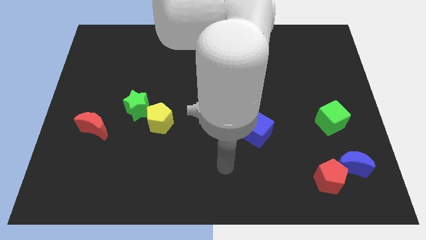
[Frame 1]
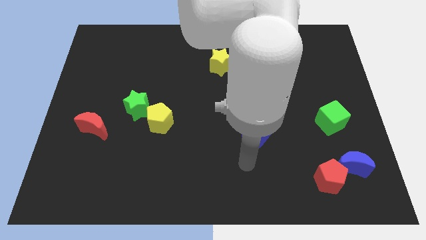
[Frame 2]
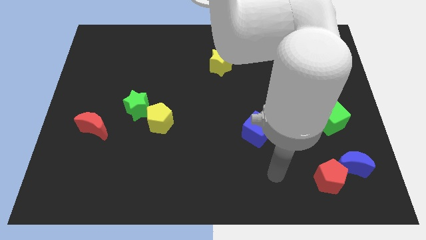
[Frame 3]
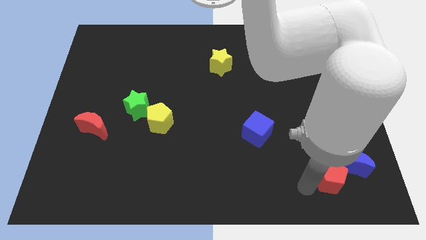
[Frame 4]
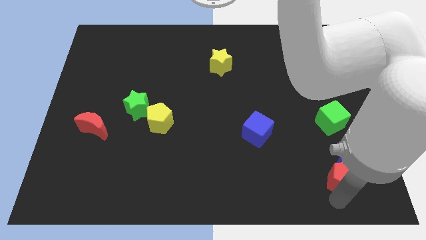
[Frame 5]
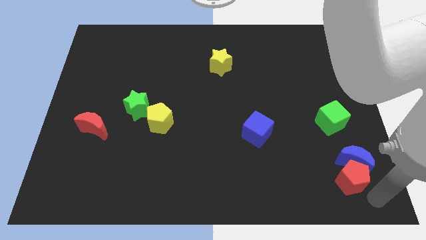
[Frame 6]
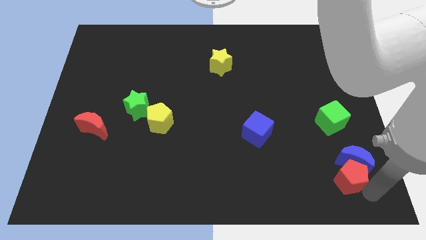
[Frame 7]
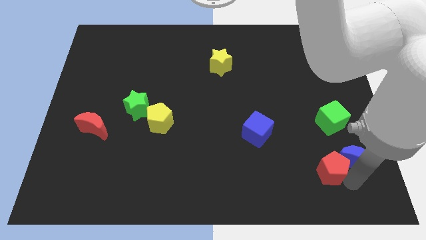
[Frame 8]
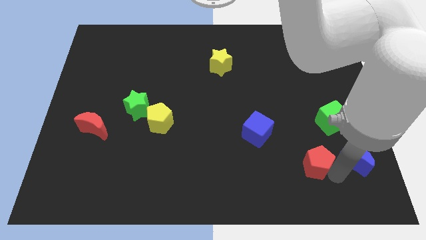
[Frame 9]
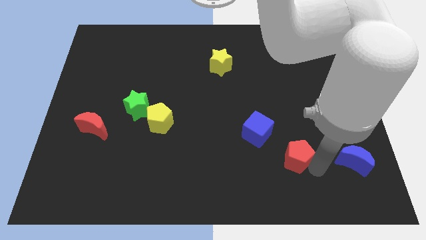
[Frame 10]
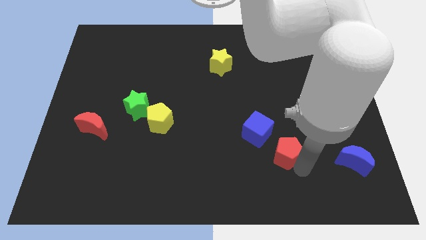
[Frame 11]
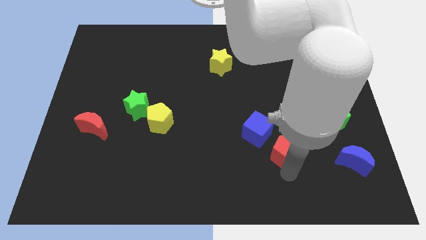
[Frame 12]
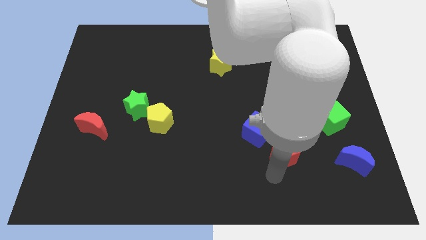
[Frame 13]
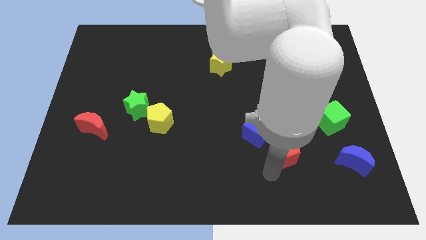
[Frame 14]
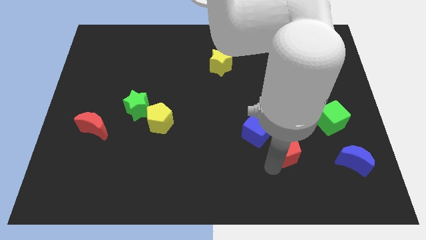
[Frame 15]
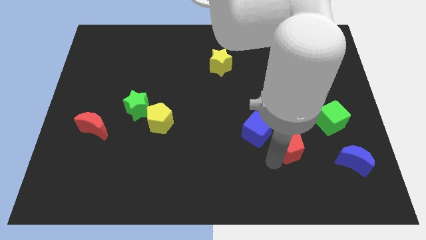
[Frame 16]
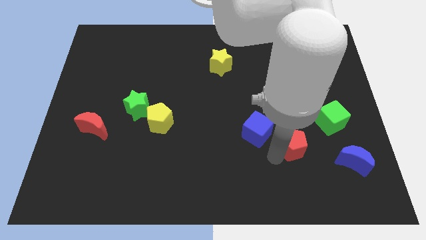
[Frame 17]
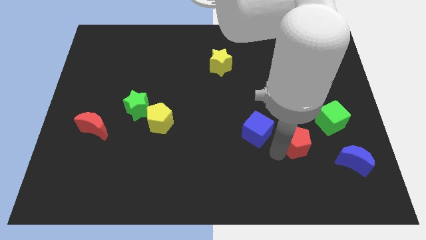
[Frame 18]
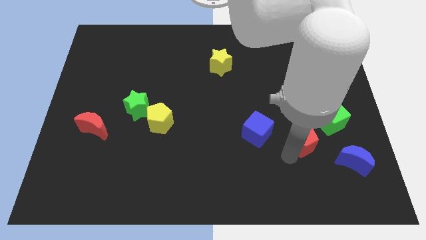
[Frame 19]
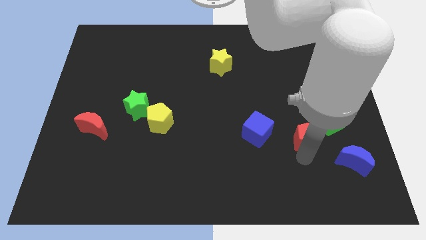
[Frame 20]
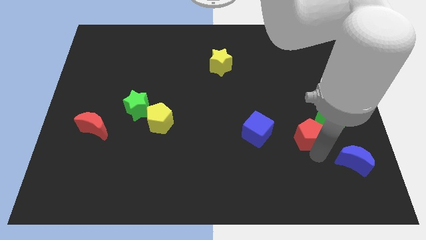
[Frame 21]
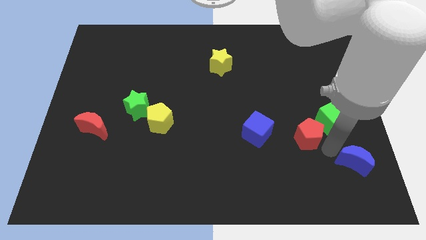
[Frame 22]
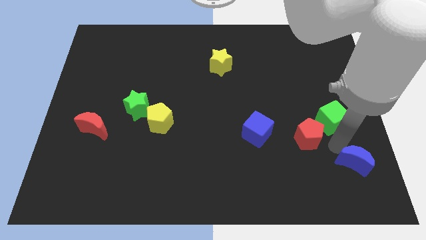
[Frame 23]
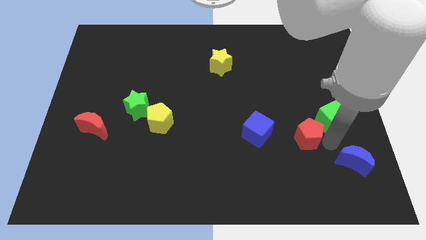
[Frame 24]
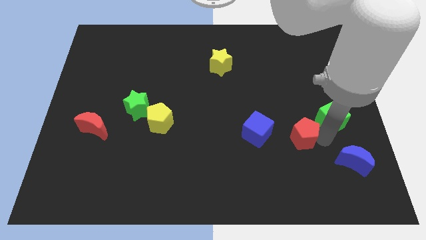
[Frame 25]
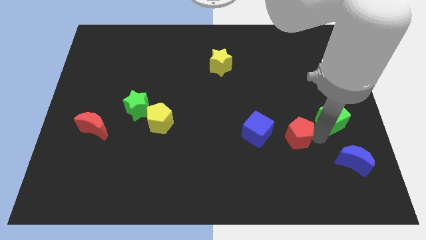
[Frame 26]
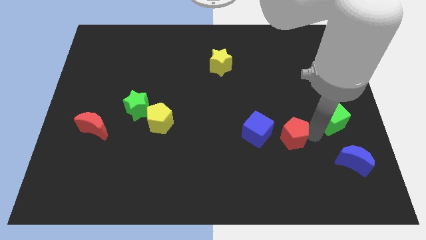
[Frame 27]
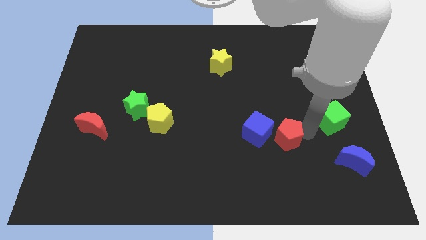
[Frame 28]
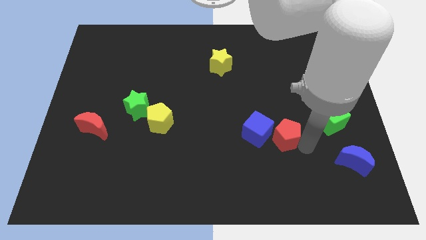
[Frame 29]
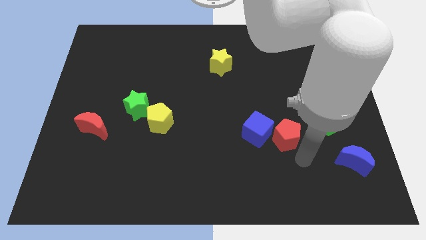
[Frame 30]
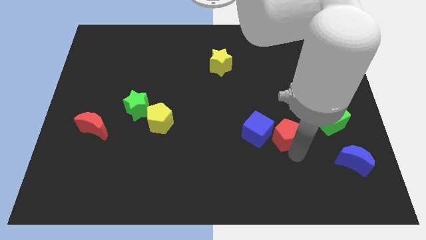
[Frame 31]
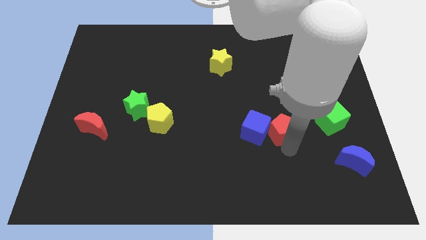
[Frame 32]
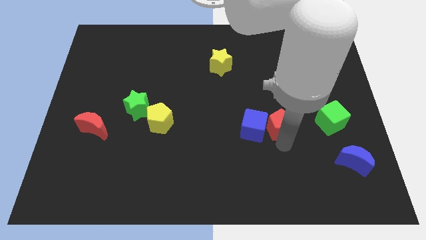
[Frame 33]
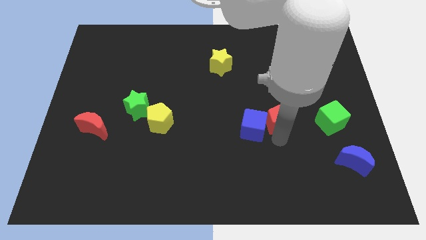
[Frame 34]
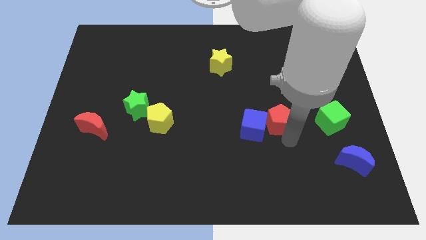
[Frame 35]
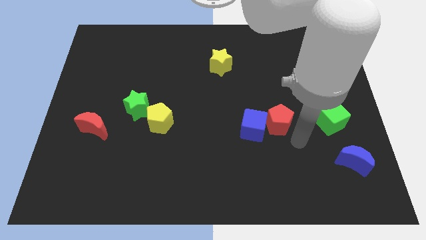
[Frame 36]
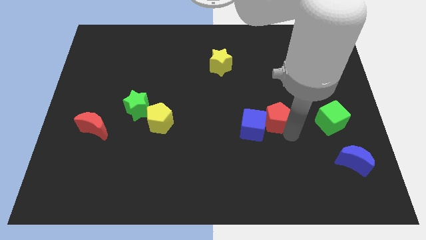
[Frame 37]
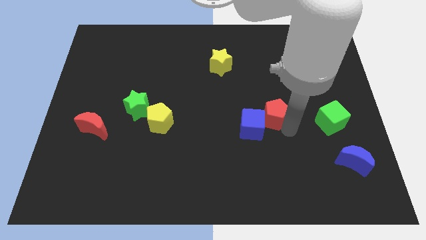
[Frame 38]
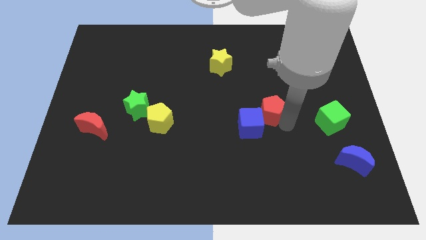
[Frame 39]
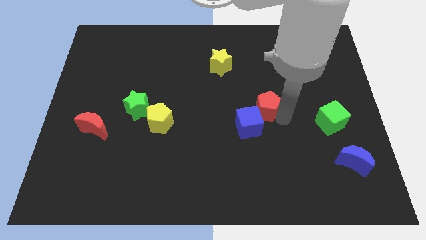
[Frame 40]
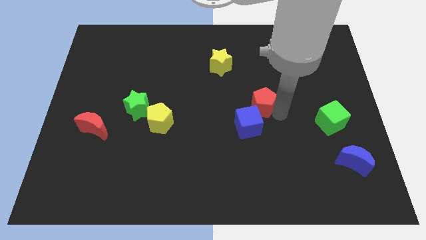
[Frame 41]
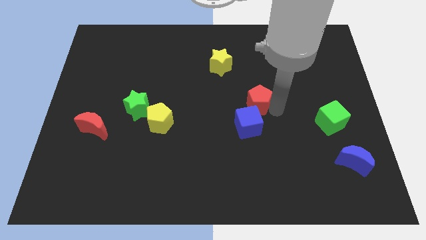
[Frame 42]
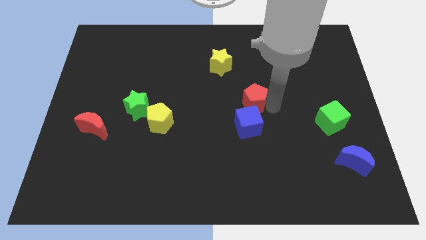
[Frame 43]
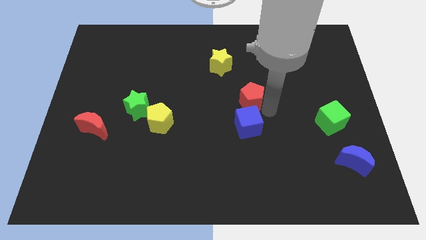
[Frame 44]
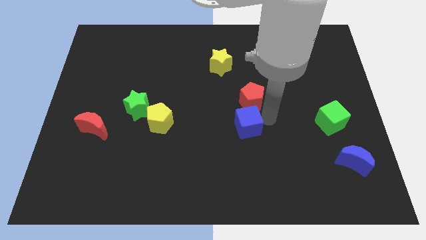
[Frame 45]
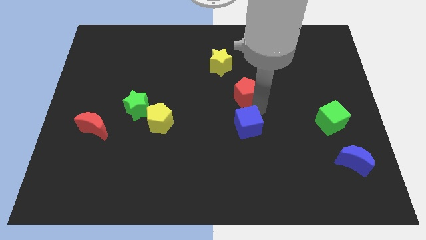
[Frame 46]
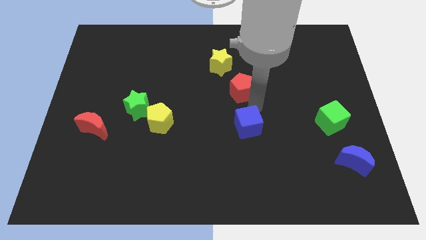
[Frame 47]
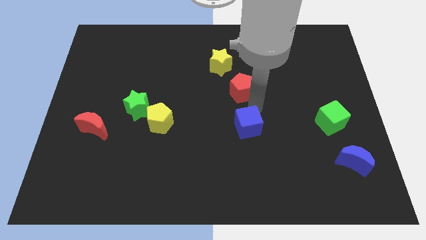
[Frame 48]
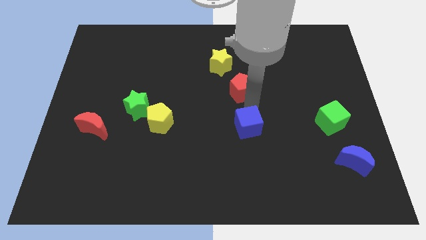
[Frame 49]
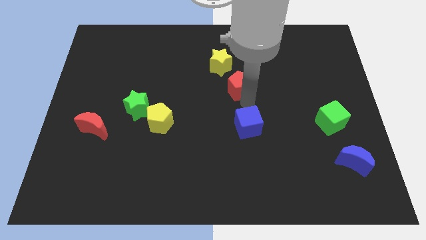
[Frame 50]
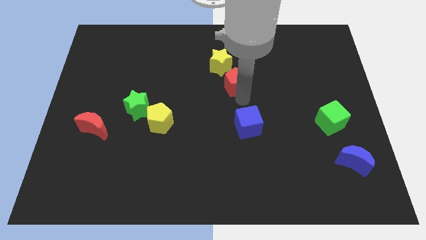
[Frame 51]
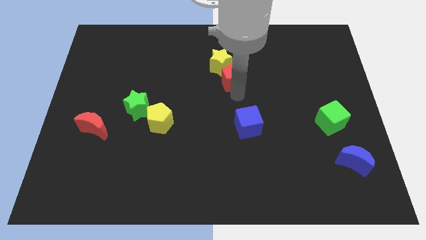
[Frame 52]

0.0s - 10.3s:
put the red pentagon close to the yellow star

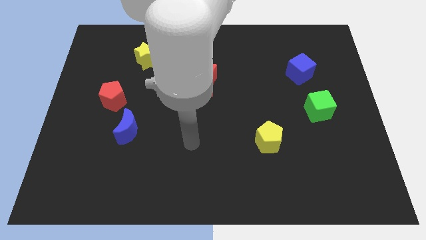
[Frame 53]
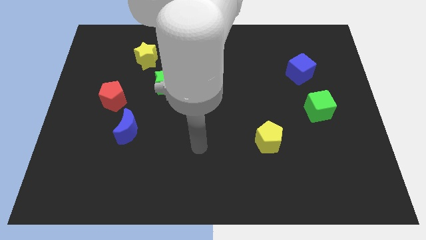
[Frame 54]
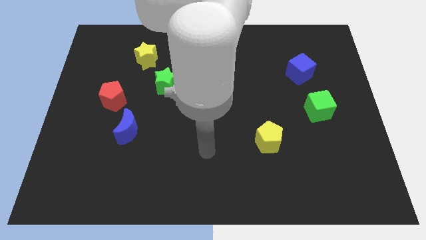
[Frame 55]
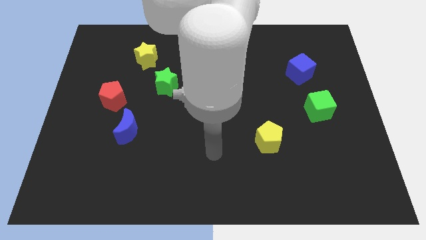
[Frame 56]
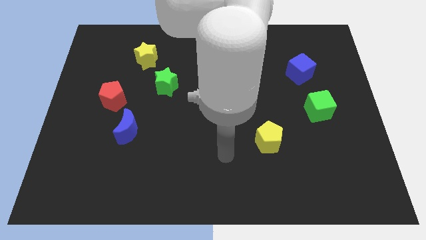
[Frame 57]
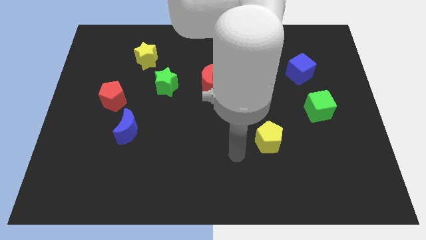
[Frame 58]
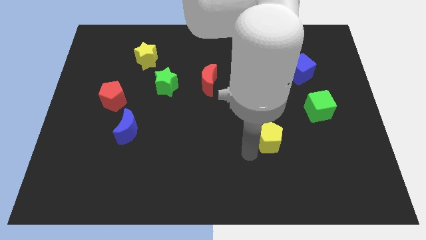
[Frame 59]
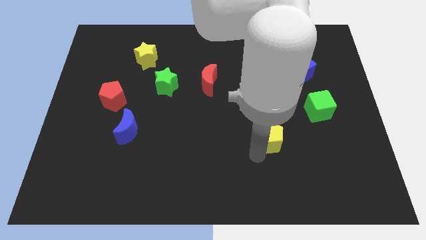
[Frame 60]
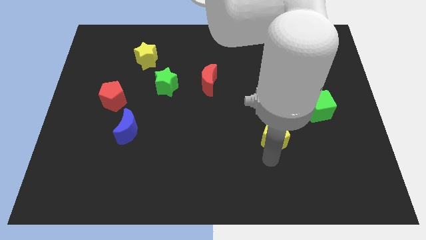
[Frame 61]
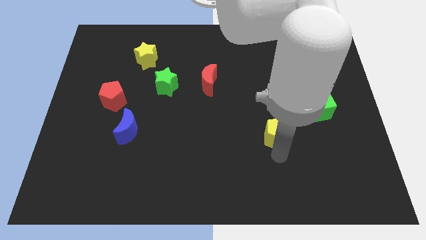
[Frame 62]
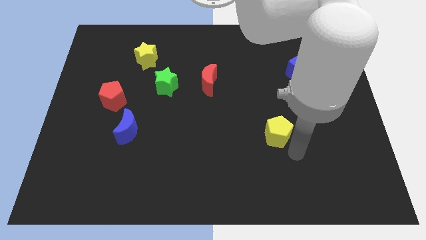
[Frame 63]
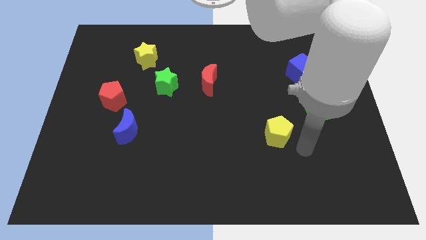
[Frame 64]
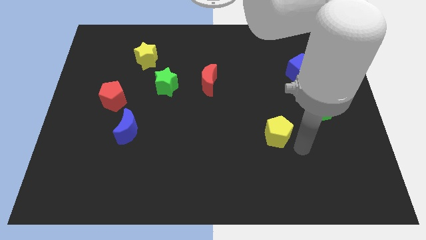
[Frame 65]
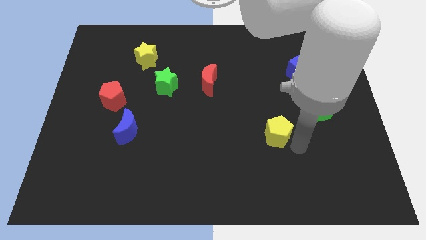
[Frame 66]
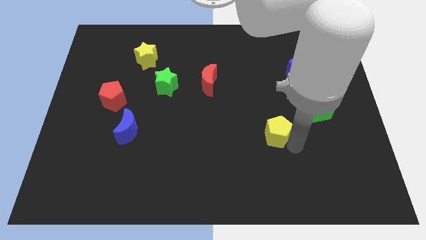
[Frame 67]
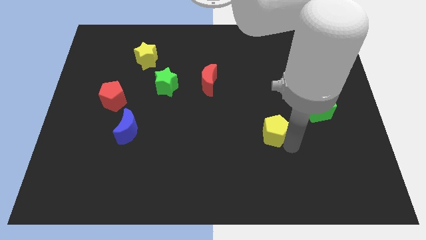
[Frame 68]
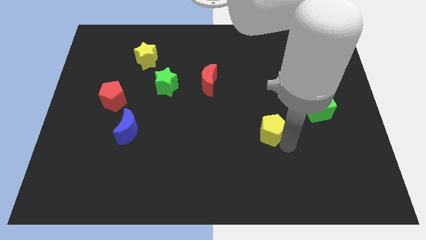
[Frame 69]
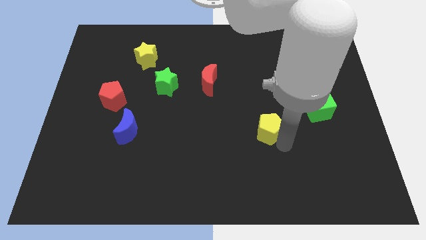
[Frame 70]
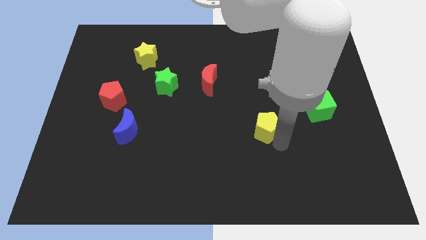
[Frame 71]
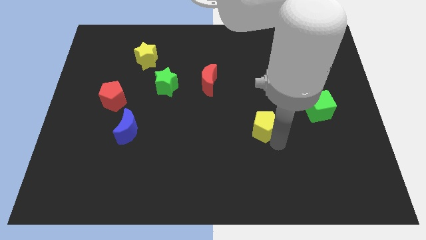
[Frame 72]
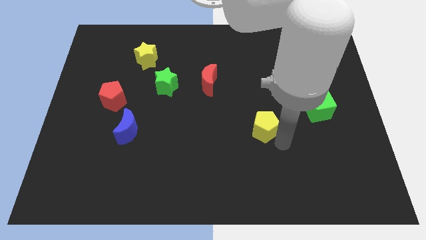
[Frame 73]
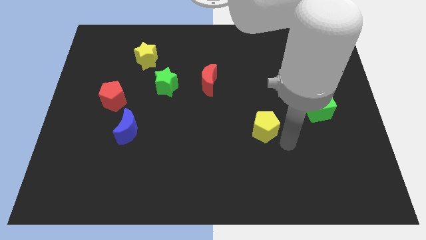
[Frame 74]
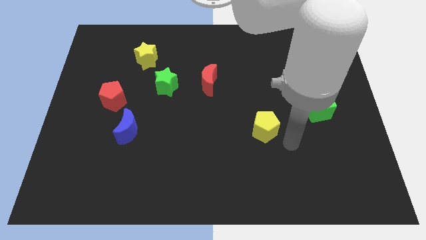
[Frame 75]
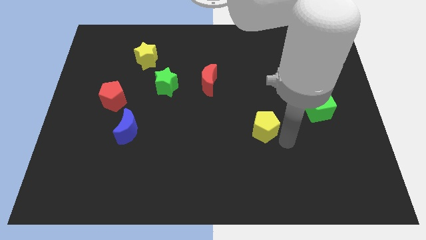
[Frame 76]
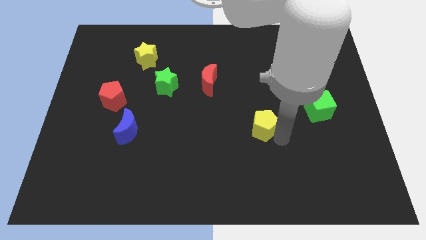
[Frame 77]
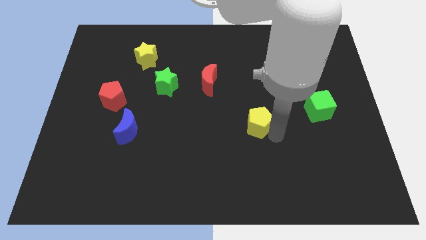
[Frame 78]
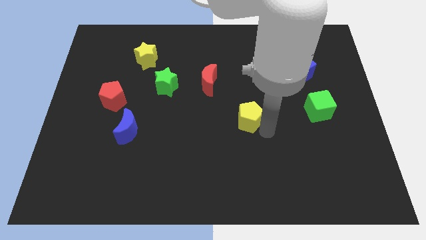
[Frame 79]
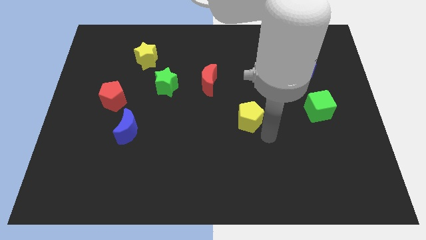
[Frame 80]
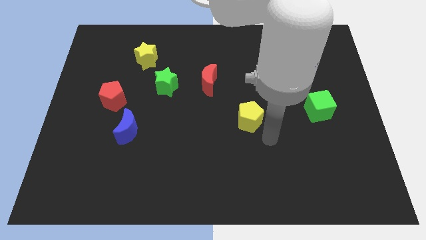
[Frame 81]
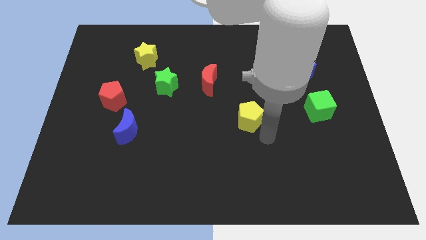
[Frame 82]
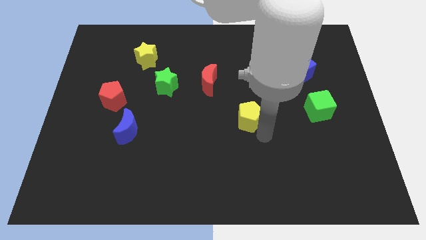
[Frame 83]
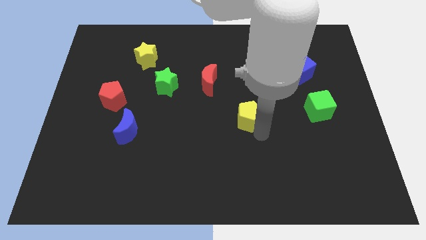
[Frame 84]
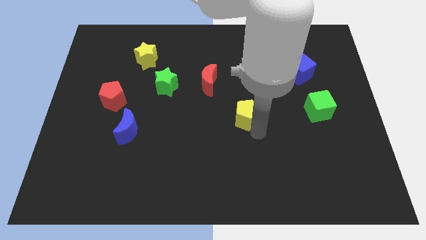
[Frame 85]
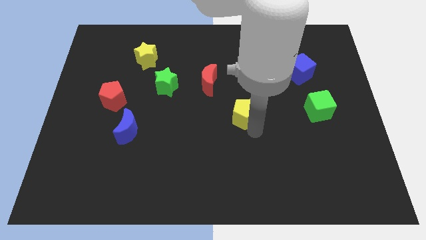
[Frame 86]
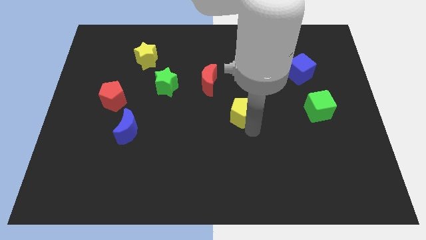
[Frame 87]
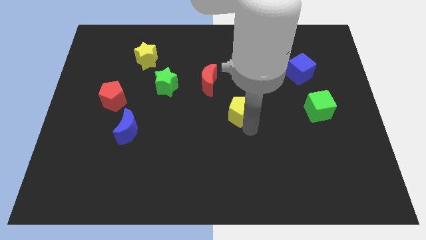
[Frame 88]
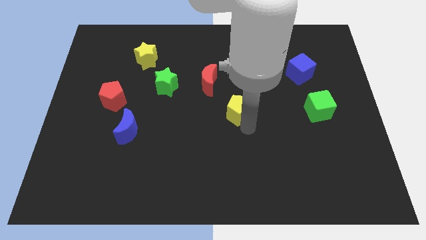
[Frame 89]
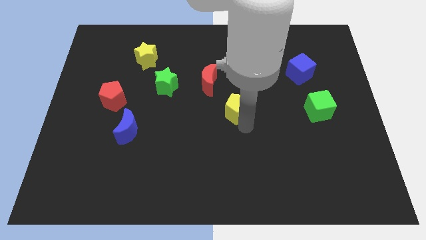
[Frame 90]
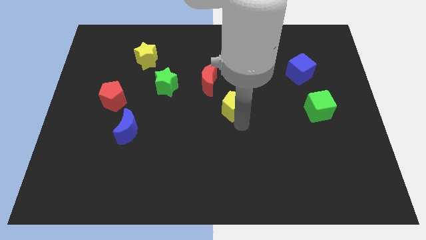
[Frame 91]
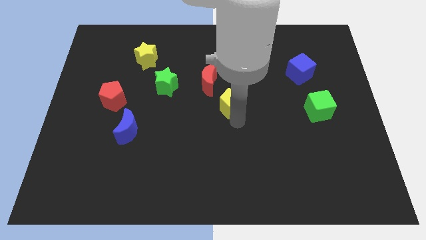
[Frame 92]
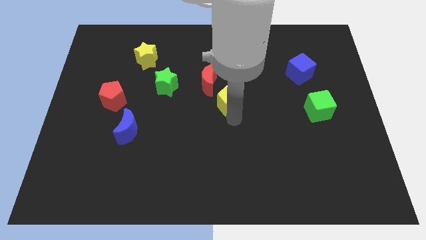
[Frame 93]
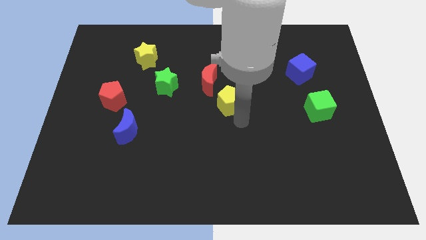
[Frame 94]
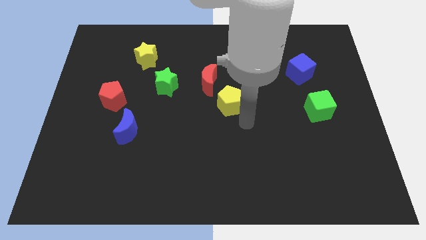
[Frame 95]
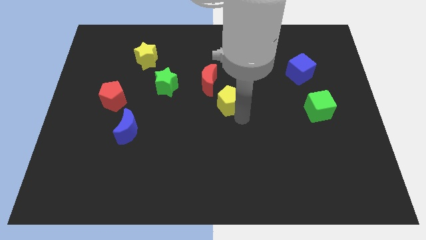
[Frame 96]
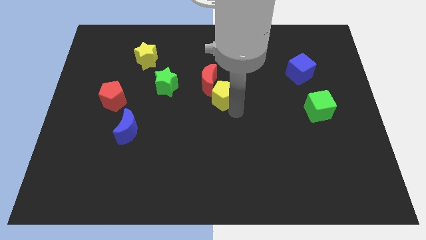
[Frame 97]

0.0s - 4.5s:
push the yellow pentagon close to the red moon
